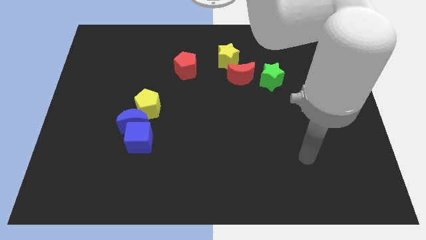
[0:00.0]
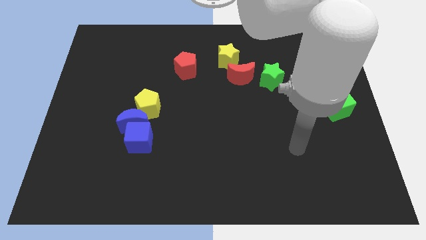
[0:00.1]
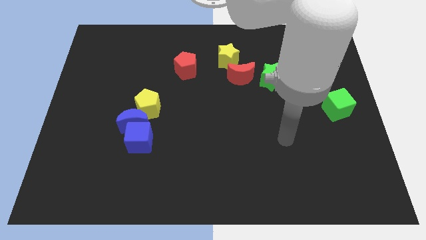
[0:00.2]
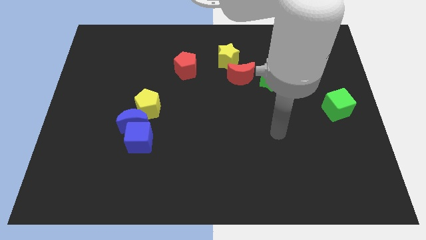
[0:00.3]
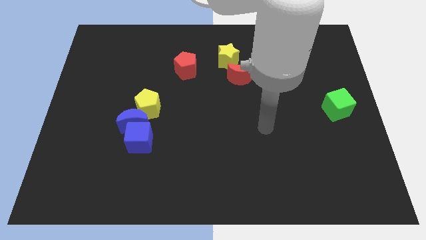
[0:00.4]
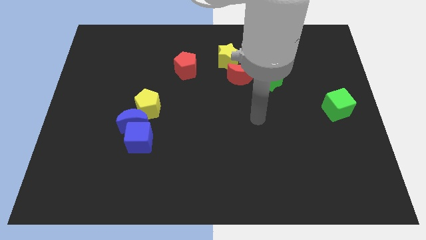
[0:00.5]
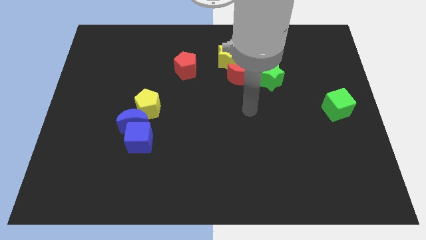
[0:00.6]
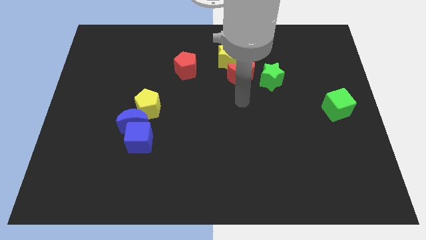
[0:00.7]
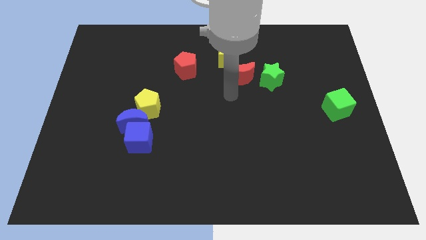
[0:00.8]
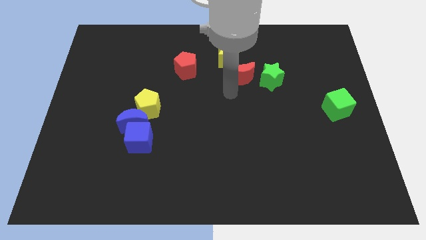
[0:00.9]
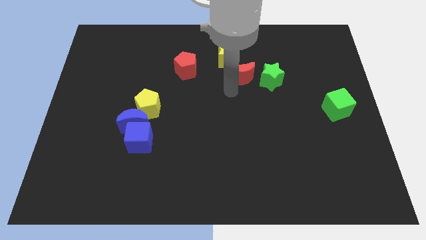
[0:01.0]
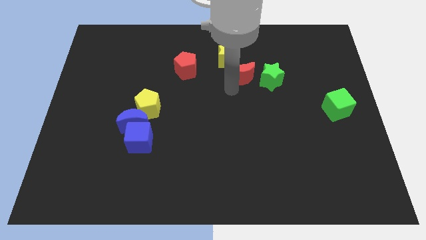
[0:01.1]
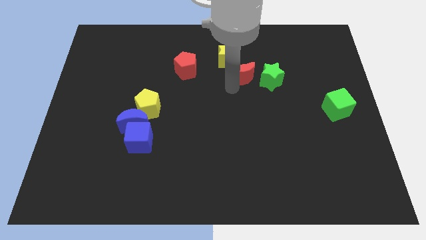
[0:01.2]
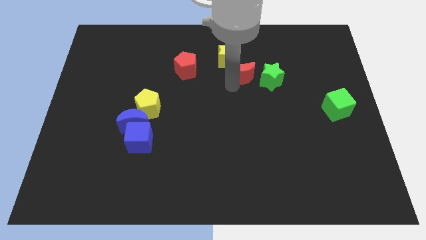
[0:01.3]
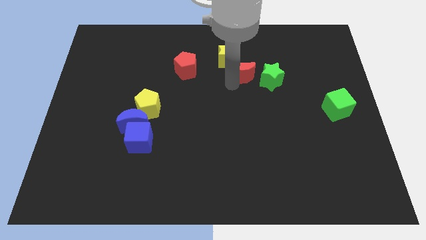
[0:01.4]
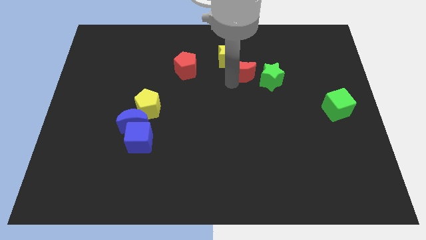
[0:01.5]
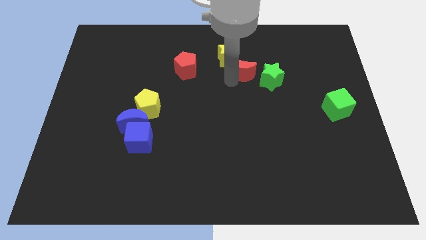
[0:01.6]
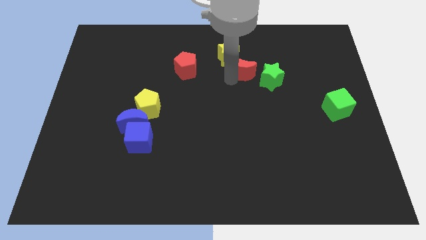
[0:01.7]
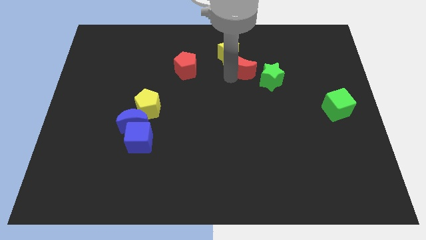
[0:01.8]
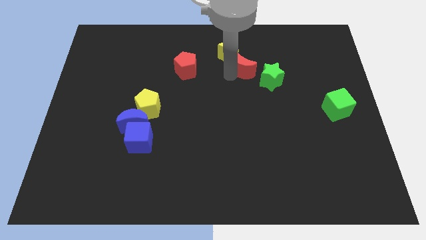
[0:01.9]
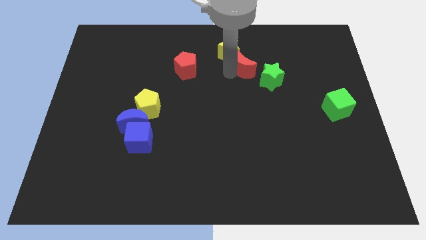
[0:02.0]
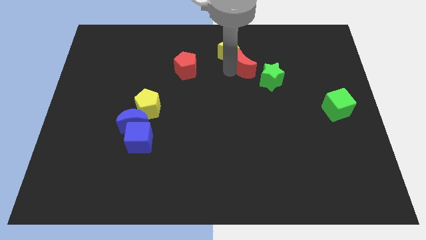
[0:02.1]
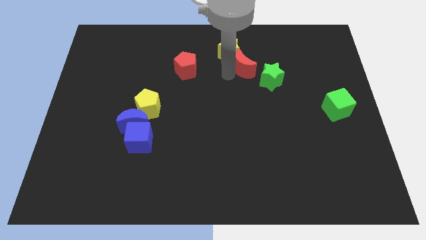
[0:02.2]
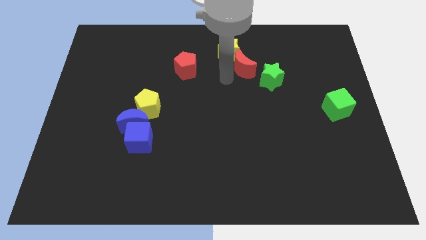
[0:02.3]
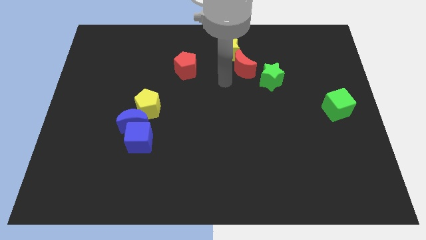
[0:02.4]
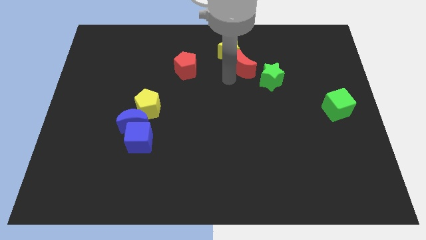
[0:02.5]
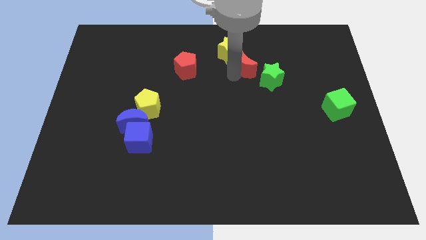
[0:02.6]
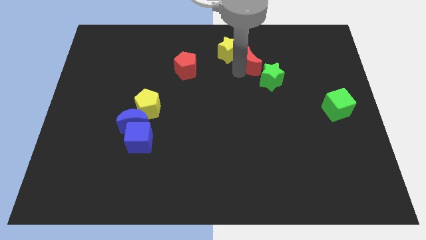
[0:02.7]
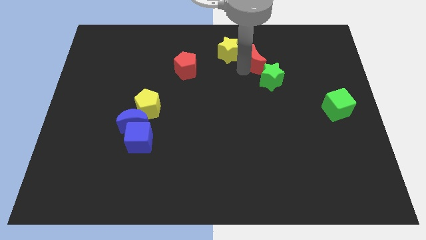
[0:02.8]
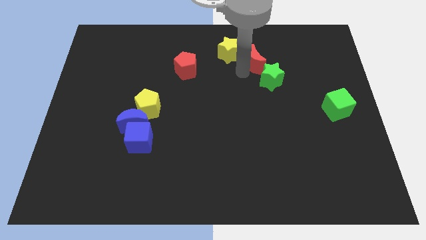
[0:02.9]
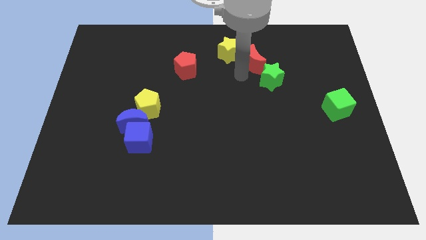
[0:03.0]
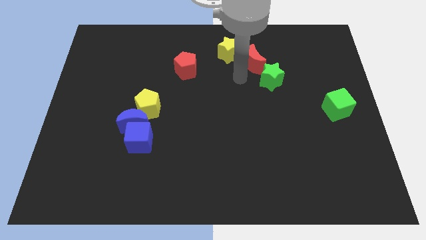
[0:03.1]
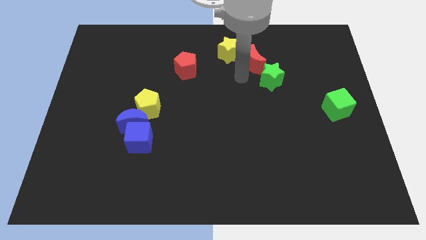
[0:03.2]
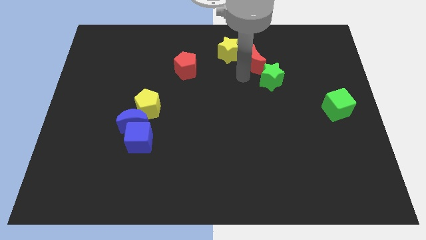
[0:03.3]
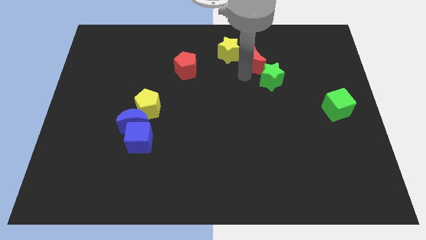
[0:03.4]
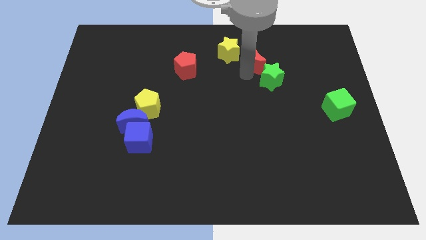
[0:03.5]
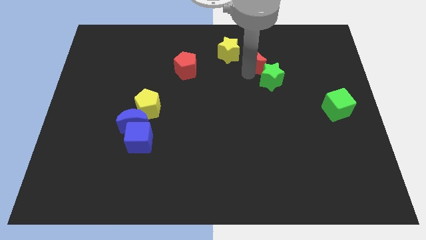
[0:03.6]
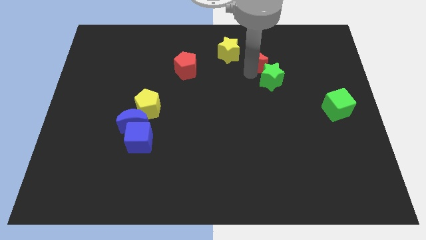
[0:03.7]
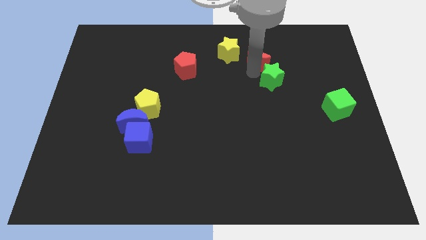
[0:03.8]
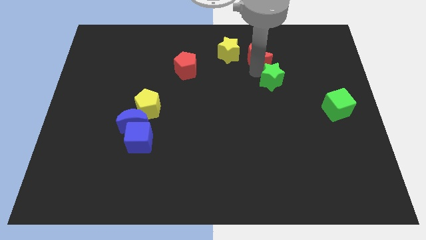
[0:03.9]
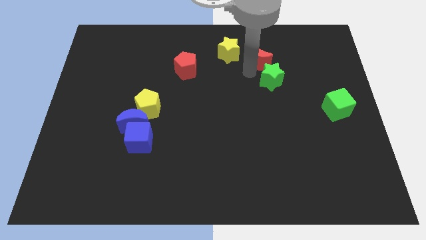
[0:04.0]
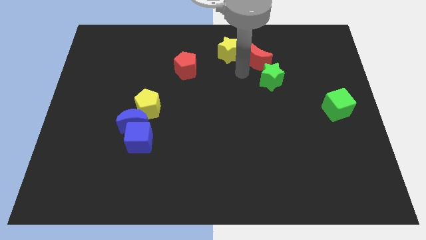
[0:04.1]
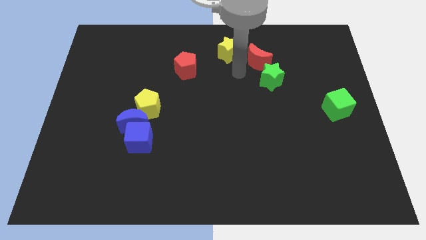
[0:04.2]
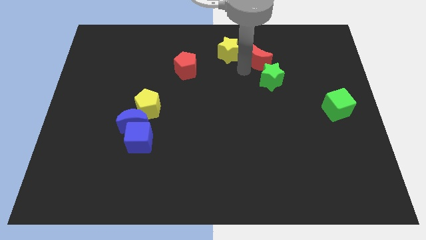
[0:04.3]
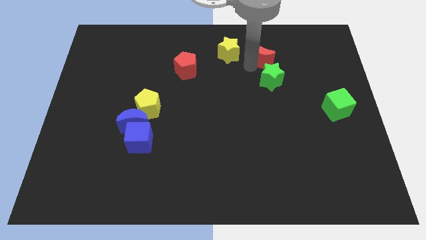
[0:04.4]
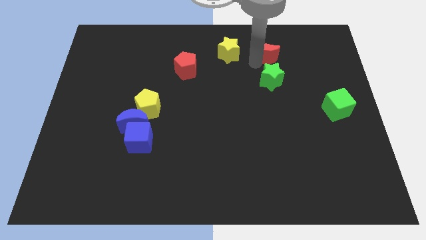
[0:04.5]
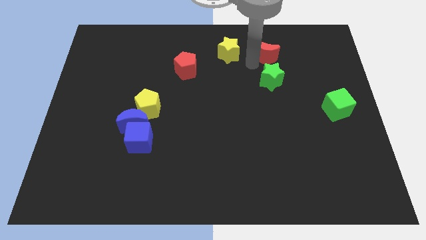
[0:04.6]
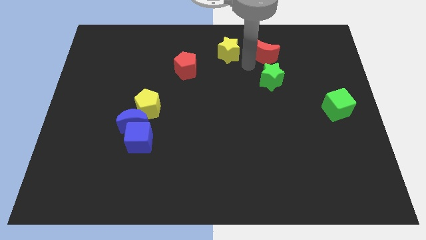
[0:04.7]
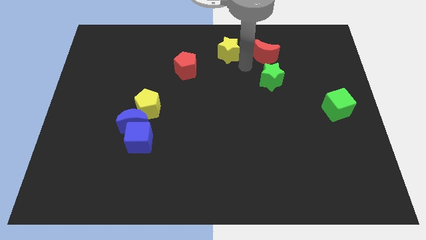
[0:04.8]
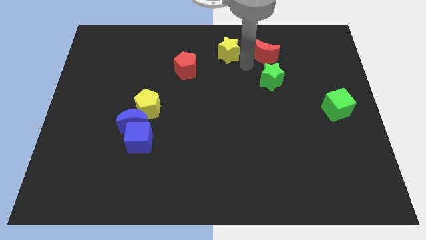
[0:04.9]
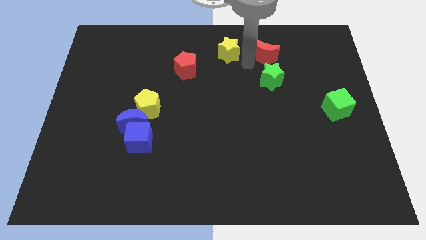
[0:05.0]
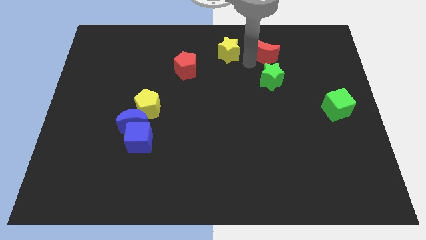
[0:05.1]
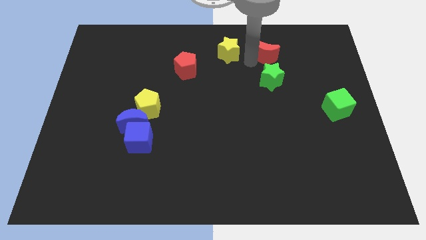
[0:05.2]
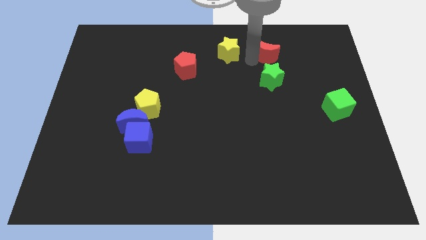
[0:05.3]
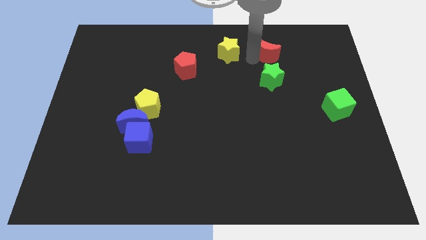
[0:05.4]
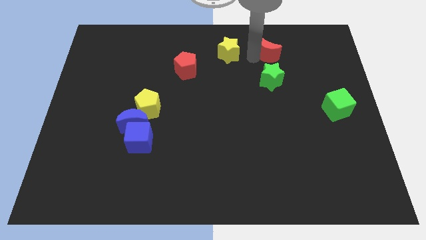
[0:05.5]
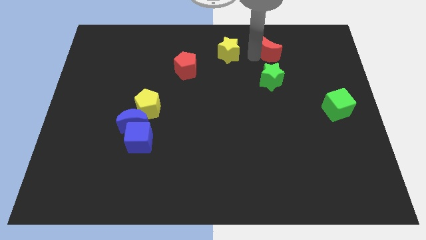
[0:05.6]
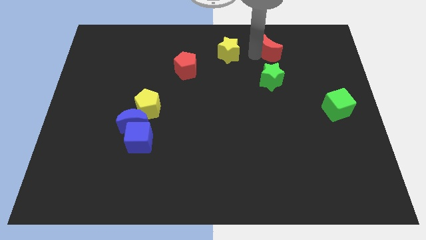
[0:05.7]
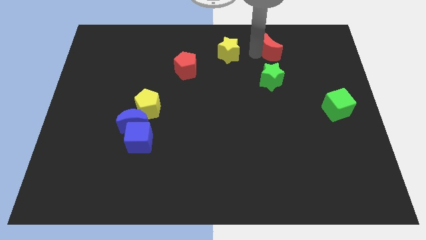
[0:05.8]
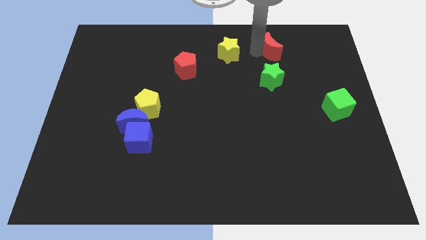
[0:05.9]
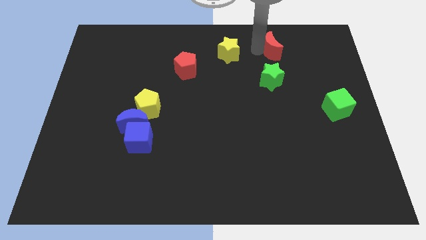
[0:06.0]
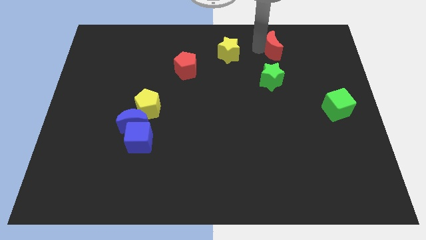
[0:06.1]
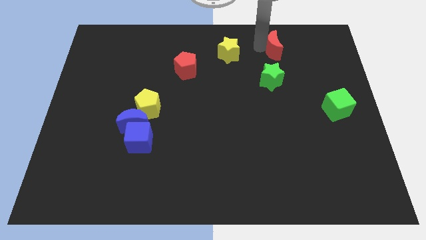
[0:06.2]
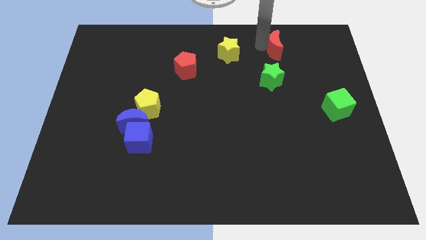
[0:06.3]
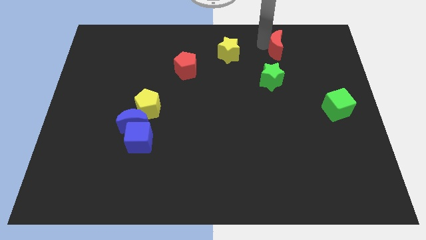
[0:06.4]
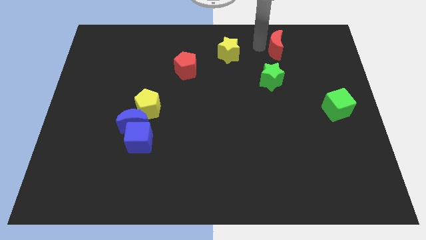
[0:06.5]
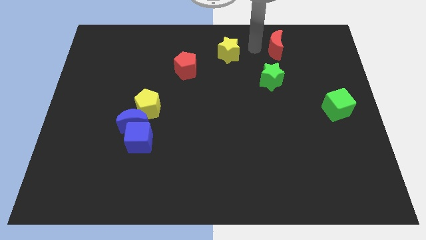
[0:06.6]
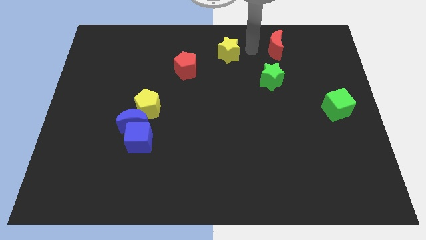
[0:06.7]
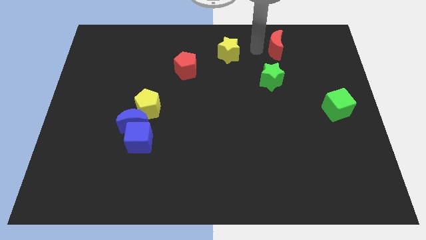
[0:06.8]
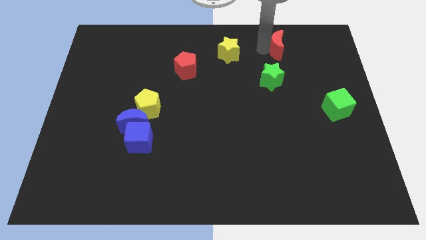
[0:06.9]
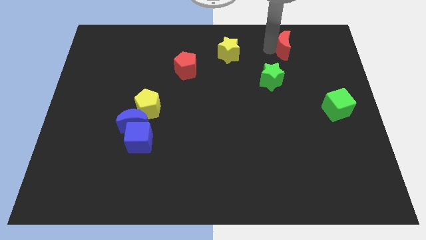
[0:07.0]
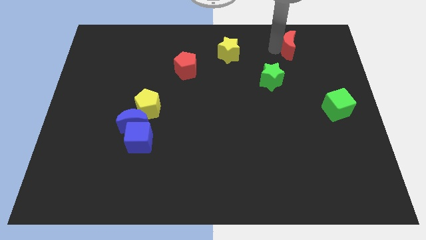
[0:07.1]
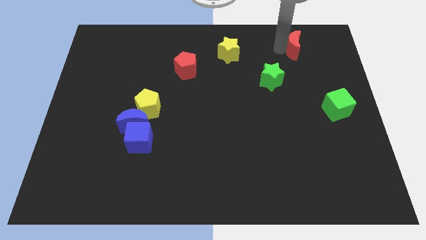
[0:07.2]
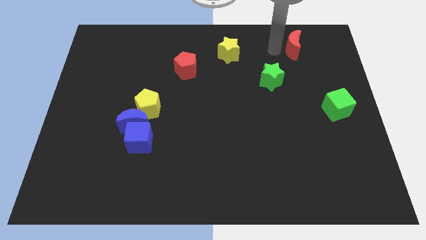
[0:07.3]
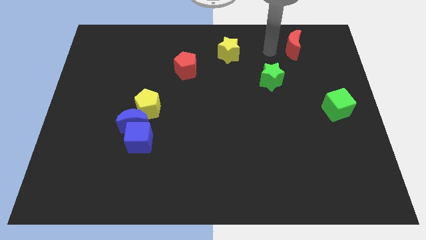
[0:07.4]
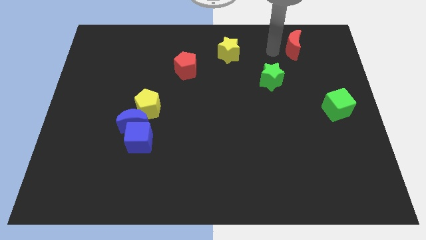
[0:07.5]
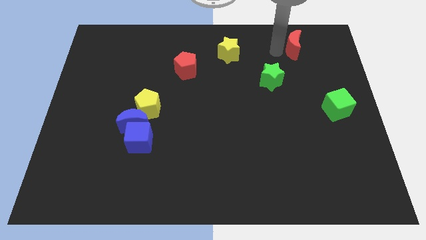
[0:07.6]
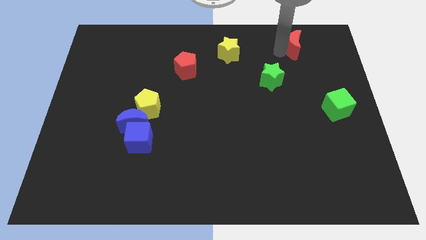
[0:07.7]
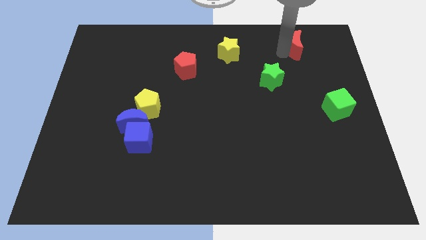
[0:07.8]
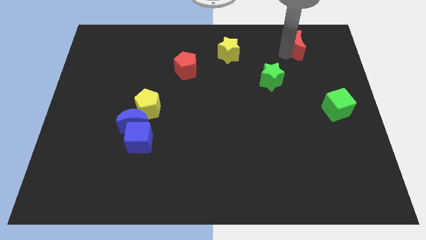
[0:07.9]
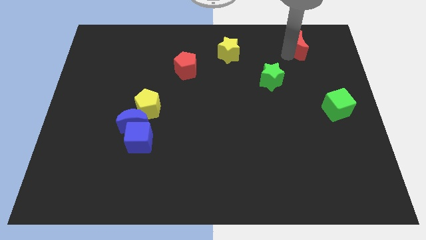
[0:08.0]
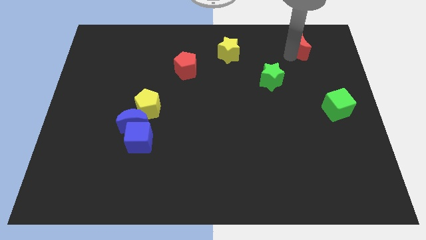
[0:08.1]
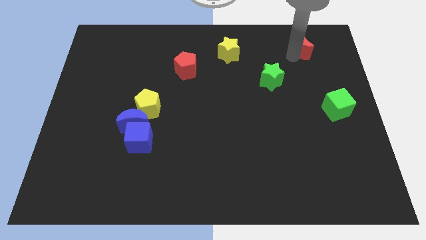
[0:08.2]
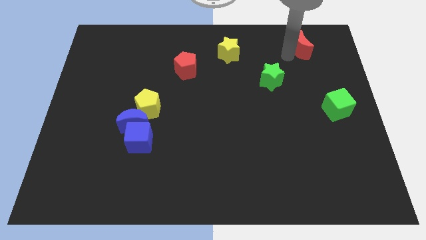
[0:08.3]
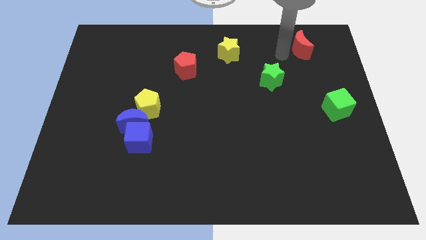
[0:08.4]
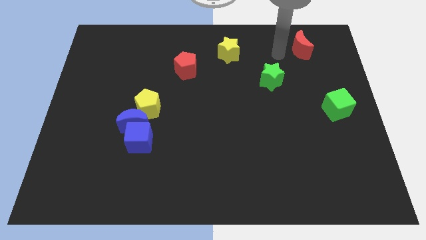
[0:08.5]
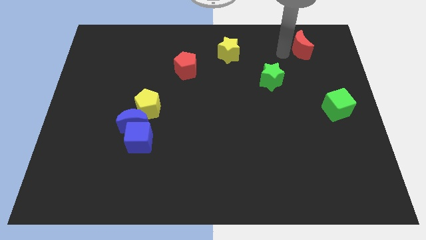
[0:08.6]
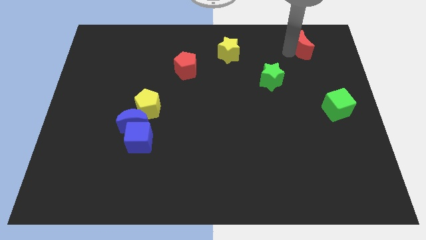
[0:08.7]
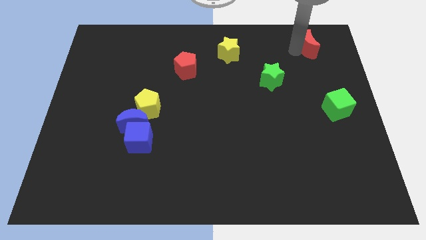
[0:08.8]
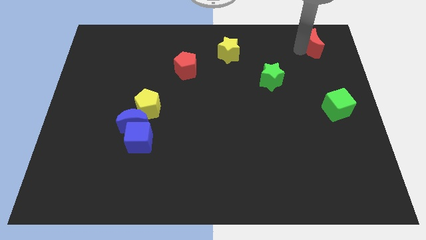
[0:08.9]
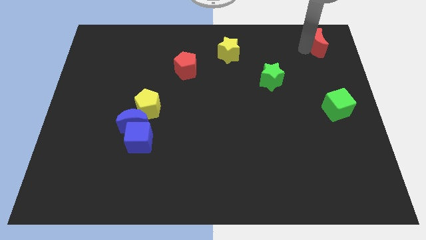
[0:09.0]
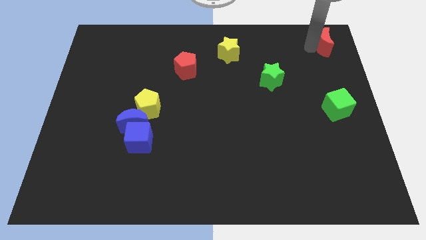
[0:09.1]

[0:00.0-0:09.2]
slide the red moon to the top right of the board
